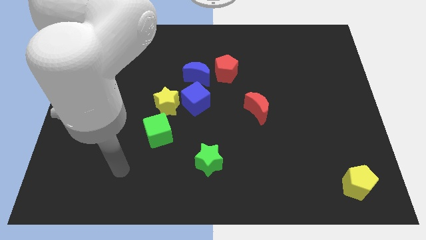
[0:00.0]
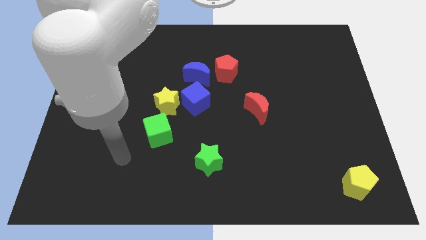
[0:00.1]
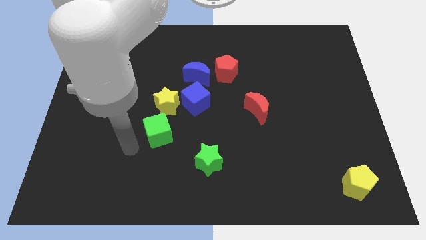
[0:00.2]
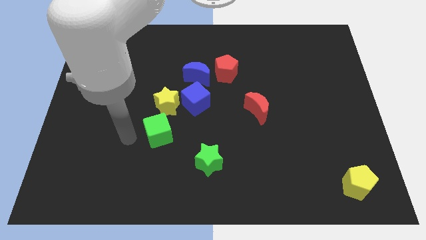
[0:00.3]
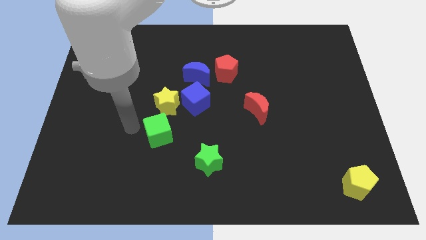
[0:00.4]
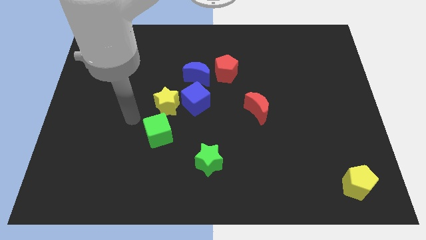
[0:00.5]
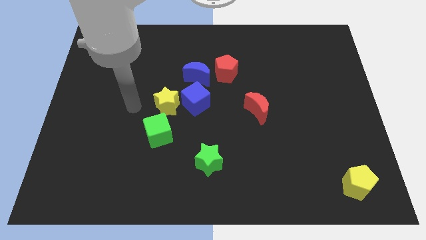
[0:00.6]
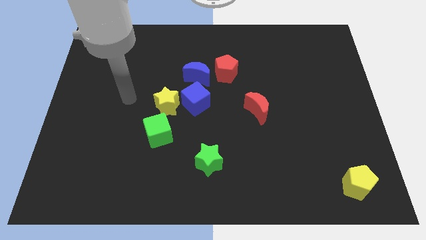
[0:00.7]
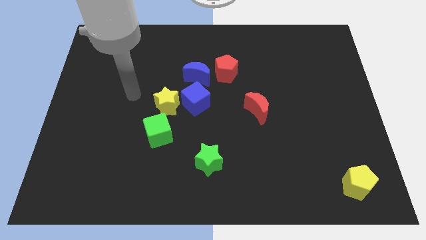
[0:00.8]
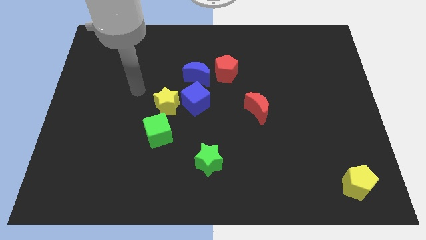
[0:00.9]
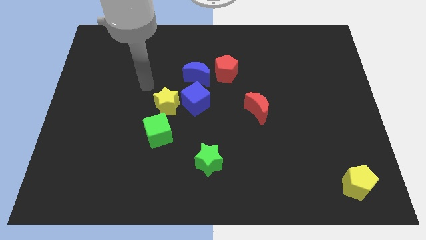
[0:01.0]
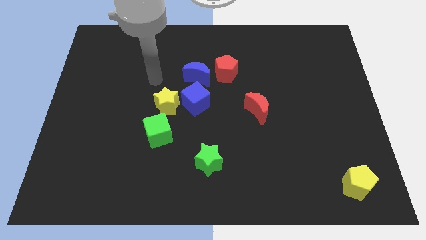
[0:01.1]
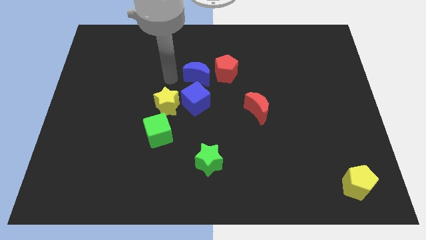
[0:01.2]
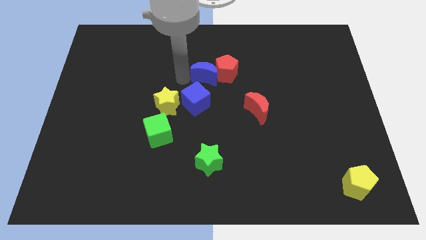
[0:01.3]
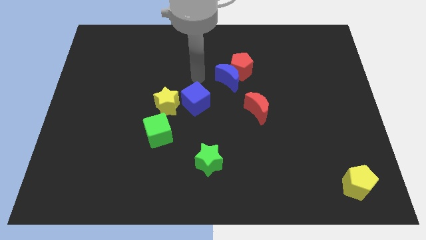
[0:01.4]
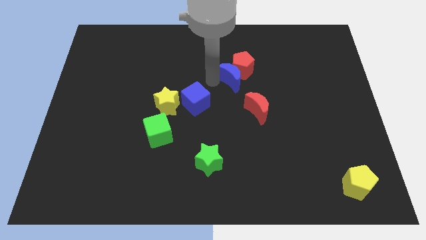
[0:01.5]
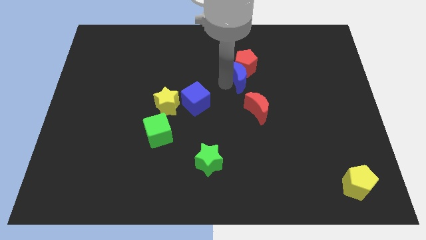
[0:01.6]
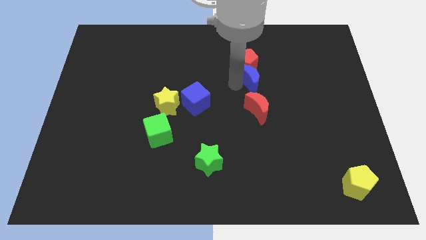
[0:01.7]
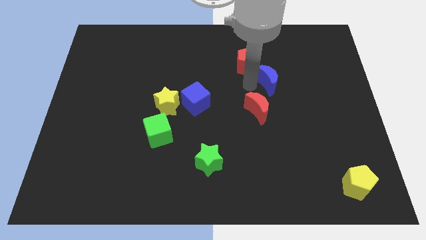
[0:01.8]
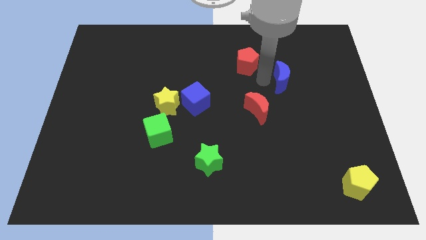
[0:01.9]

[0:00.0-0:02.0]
pull the red pentagon apart from the blue moon

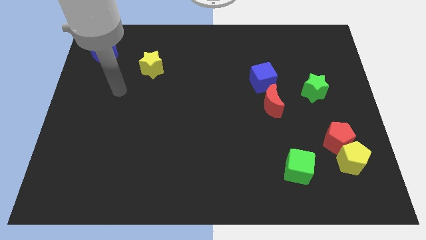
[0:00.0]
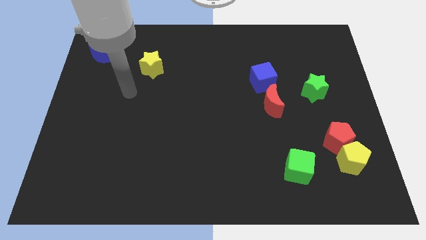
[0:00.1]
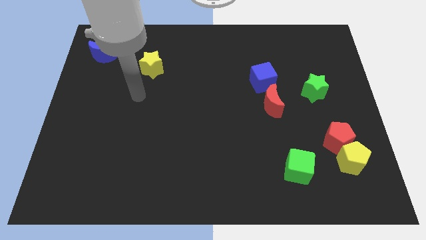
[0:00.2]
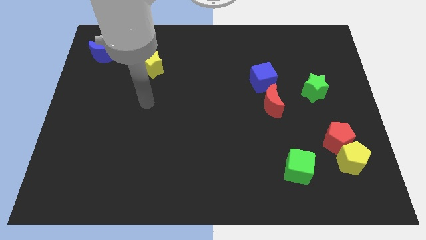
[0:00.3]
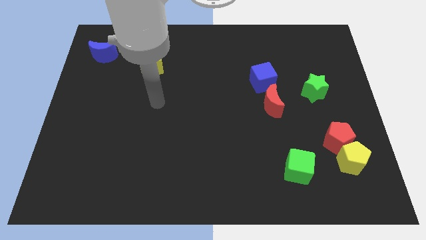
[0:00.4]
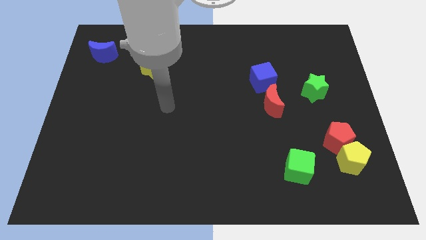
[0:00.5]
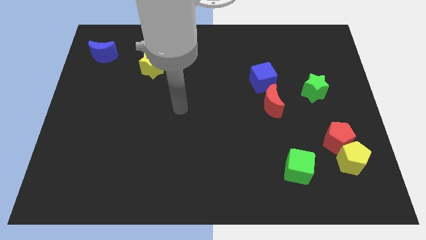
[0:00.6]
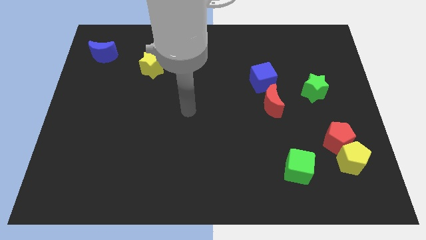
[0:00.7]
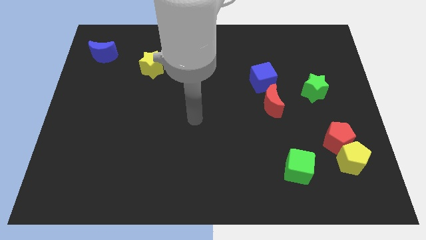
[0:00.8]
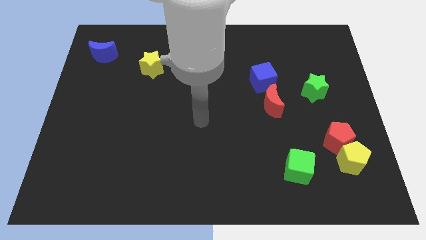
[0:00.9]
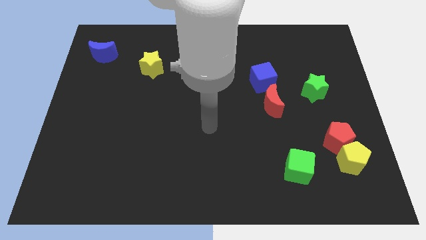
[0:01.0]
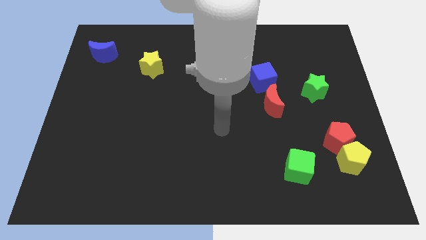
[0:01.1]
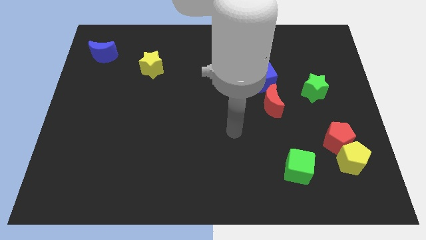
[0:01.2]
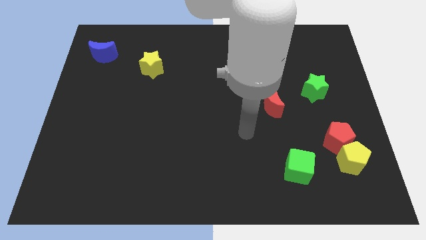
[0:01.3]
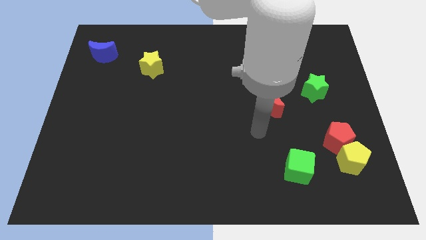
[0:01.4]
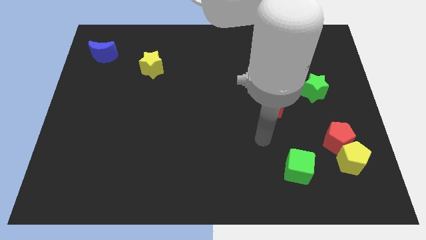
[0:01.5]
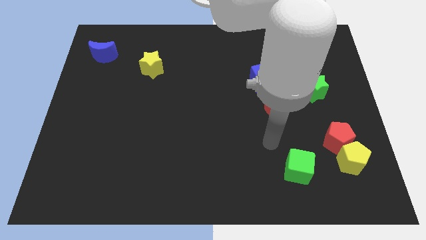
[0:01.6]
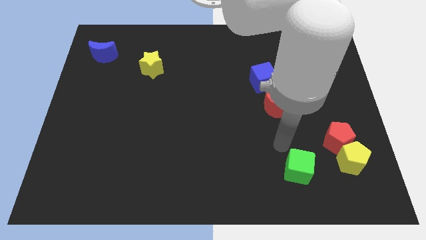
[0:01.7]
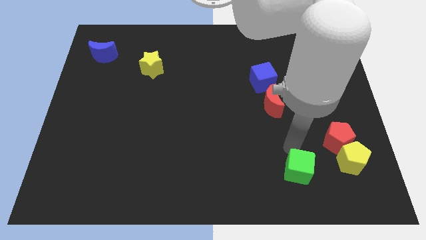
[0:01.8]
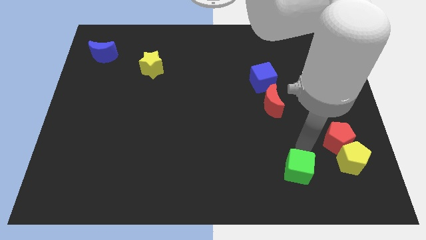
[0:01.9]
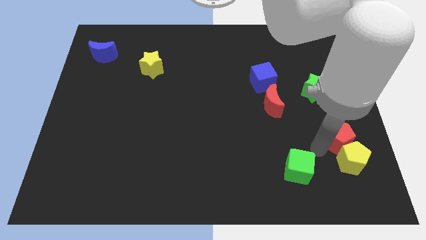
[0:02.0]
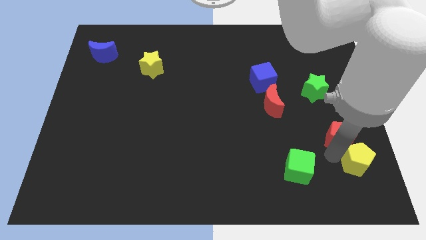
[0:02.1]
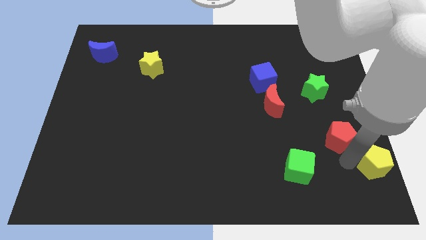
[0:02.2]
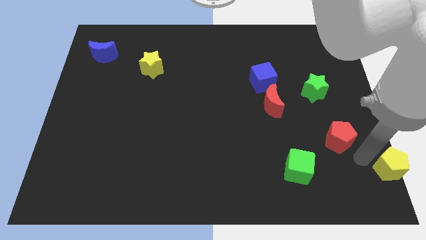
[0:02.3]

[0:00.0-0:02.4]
move the red pentagon away from the yellow pentagon

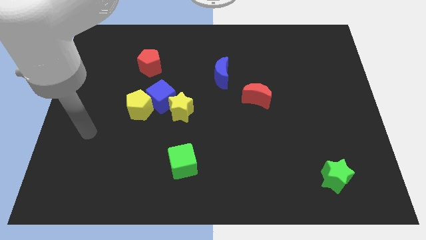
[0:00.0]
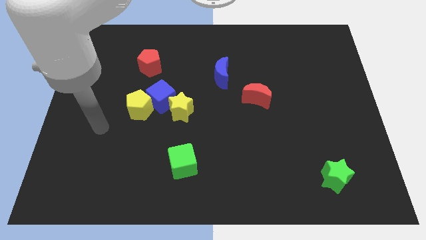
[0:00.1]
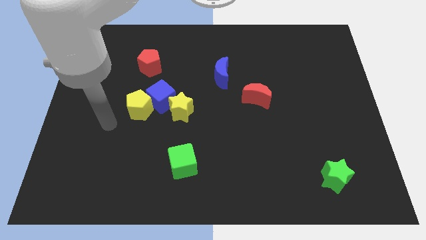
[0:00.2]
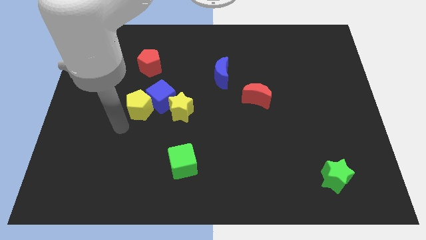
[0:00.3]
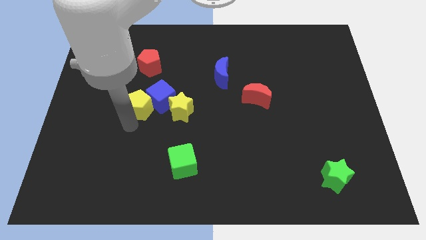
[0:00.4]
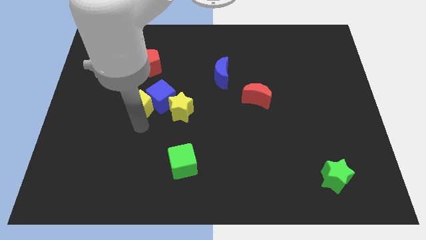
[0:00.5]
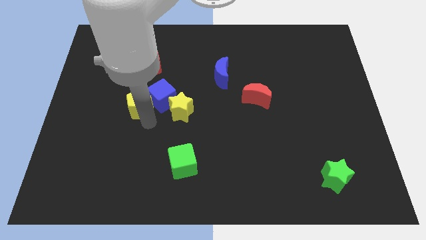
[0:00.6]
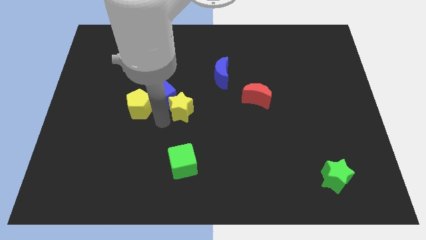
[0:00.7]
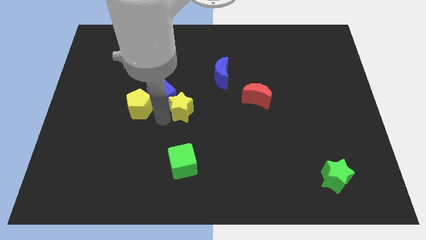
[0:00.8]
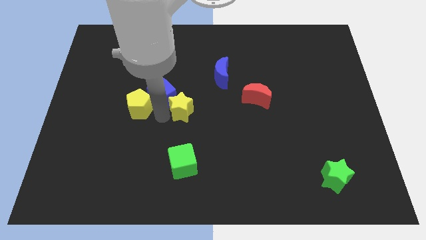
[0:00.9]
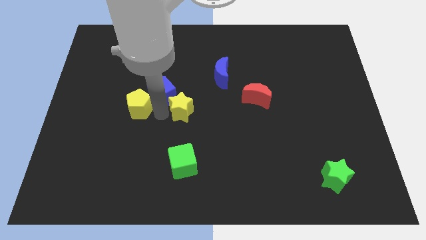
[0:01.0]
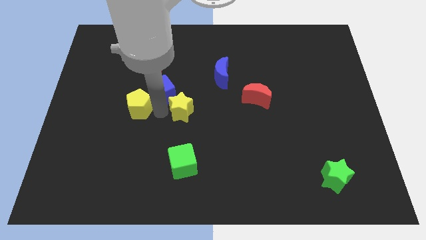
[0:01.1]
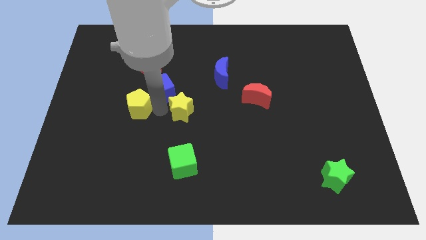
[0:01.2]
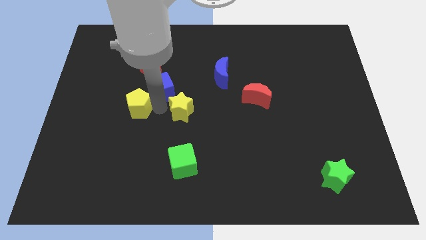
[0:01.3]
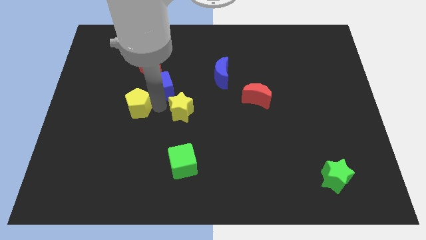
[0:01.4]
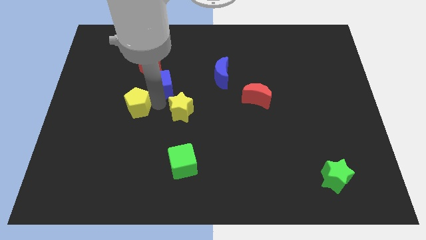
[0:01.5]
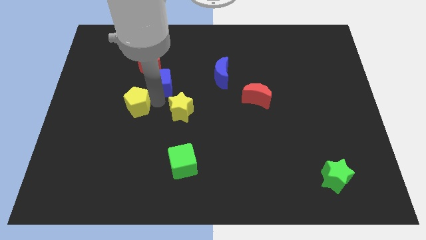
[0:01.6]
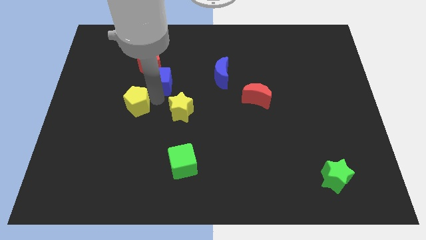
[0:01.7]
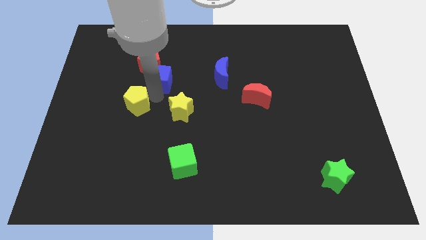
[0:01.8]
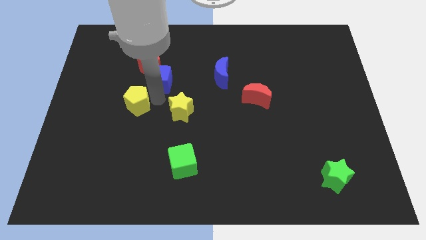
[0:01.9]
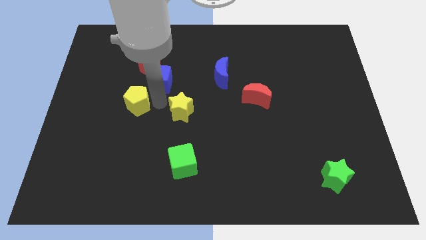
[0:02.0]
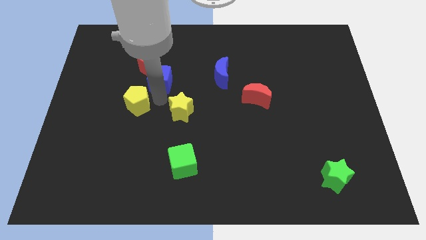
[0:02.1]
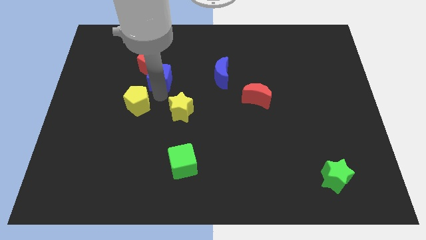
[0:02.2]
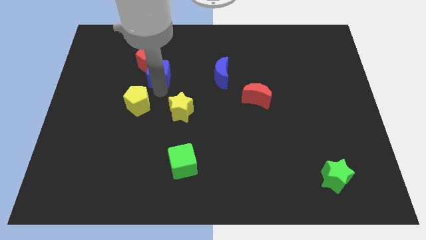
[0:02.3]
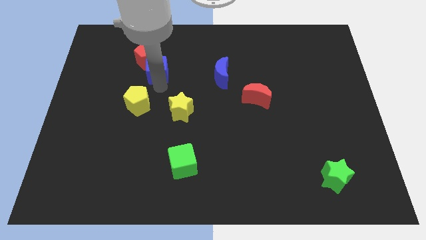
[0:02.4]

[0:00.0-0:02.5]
move the blue cube away from the yellow pentagon and yellow star

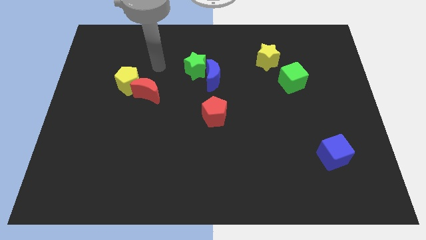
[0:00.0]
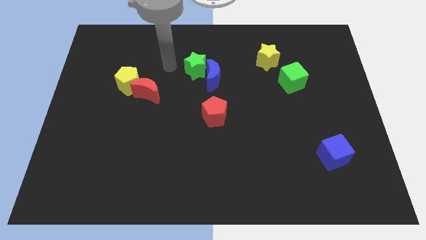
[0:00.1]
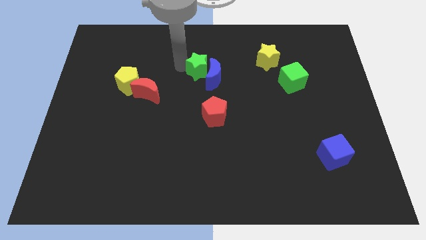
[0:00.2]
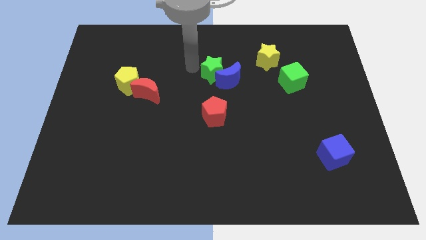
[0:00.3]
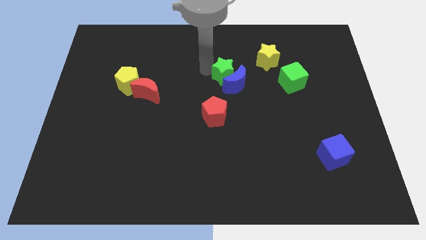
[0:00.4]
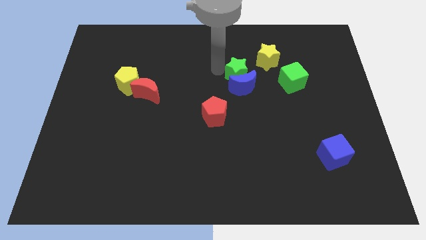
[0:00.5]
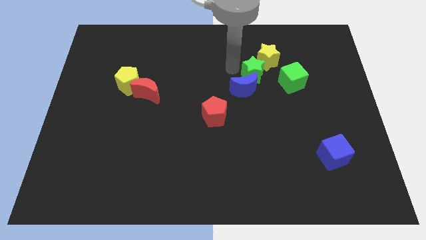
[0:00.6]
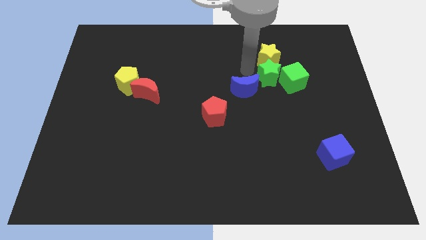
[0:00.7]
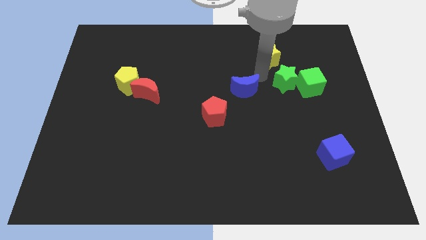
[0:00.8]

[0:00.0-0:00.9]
move the blue moon away from the green star

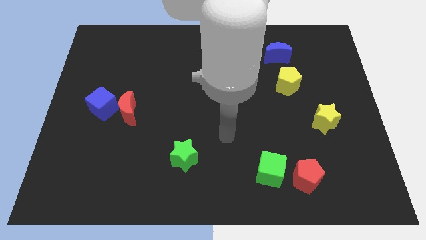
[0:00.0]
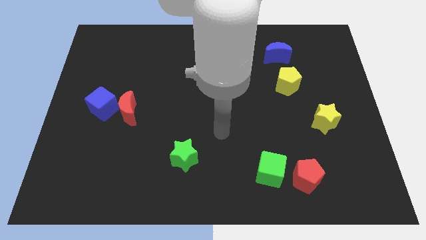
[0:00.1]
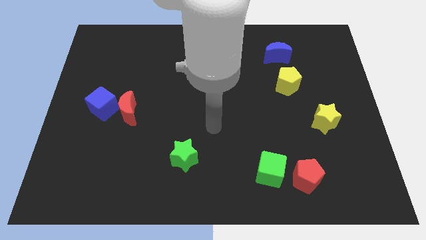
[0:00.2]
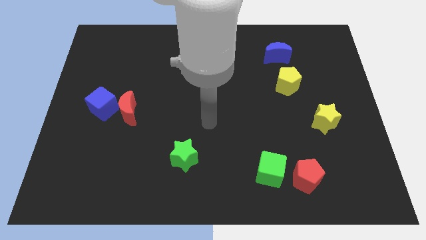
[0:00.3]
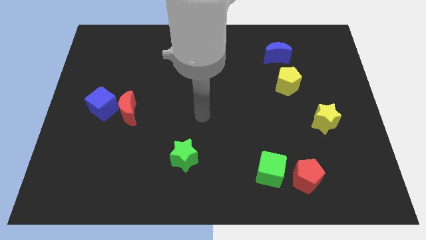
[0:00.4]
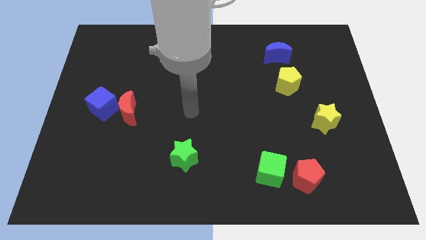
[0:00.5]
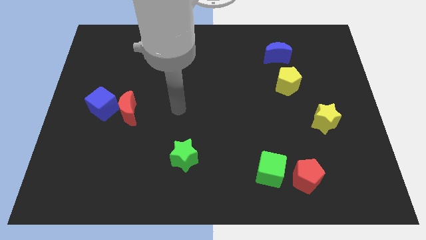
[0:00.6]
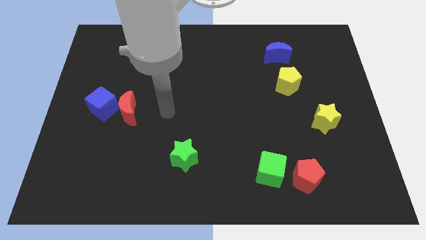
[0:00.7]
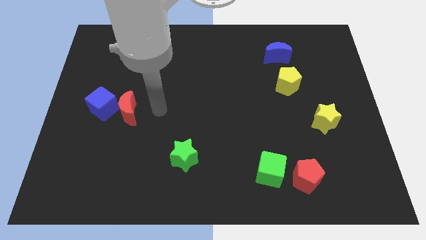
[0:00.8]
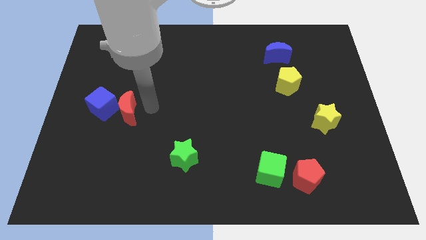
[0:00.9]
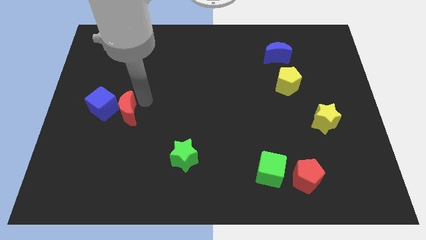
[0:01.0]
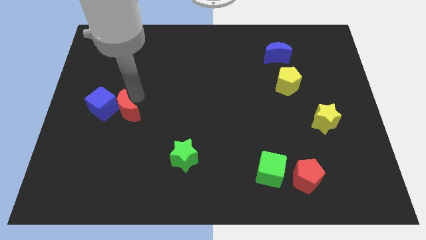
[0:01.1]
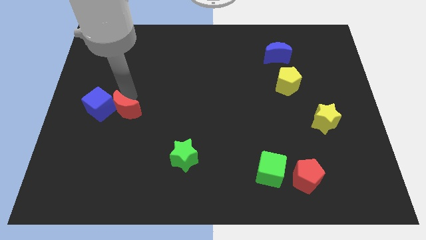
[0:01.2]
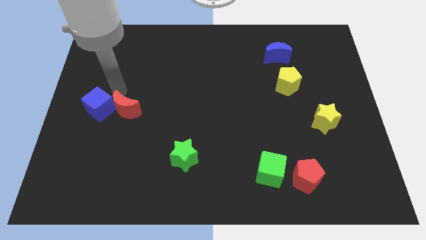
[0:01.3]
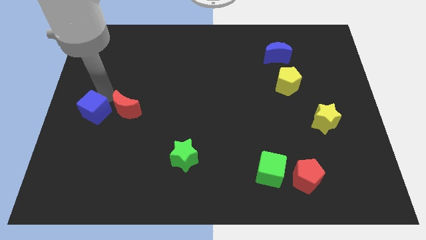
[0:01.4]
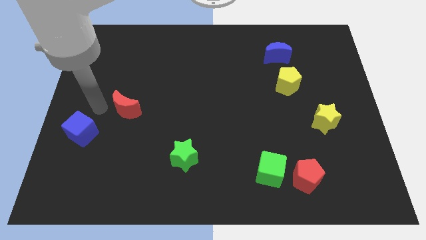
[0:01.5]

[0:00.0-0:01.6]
move the red moon away from the blue cube
